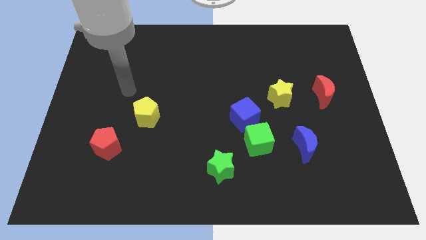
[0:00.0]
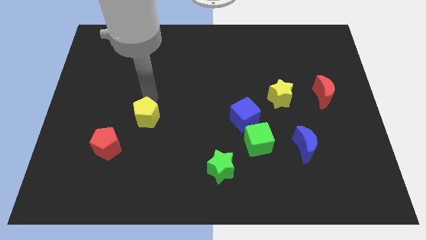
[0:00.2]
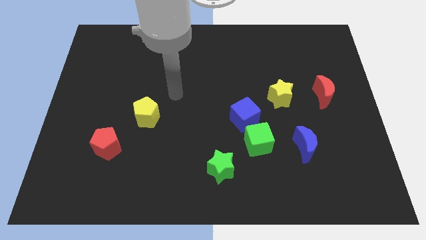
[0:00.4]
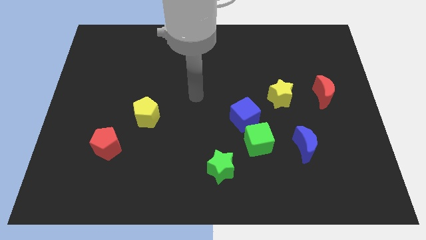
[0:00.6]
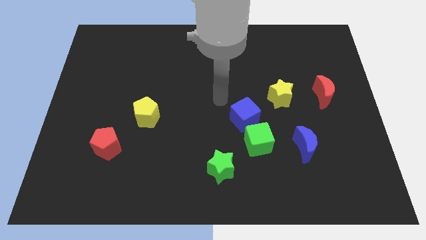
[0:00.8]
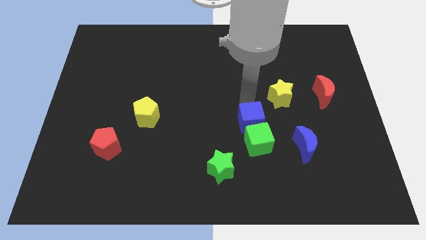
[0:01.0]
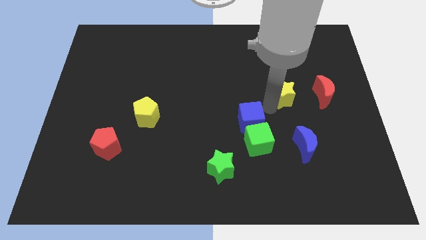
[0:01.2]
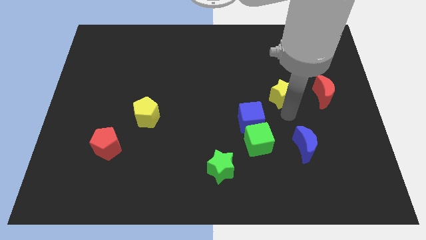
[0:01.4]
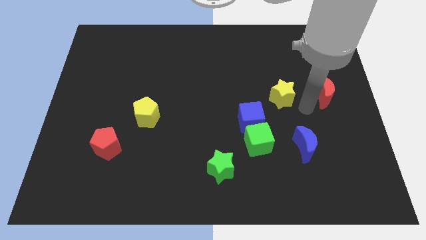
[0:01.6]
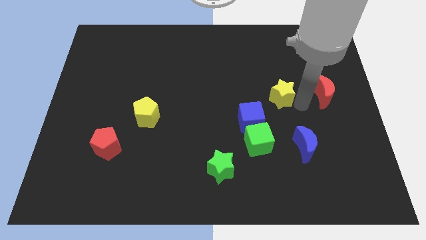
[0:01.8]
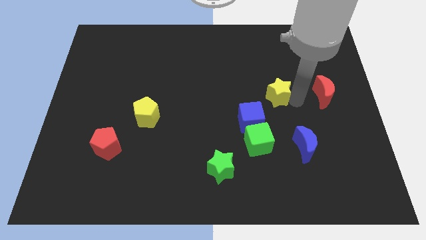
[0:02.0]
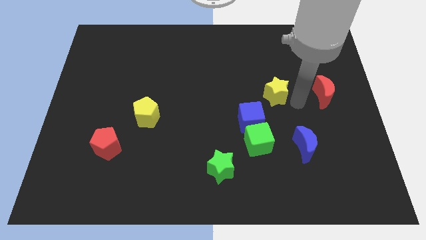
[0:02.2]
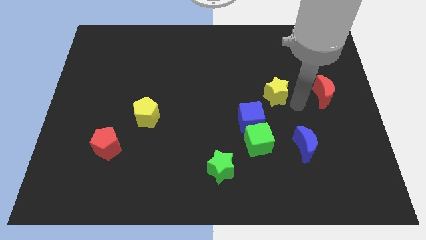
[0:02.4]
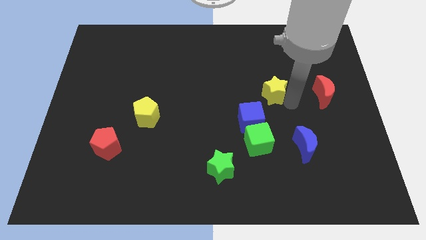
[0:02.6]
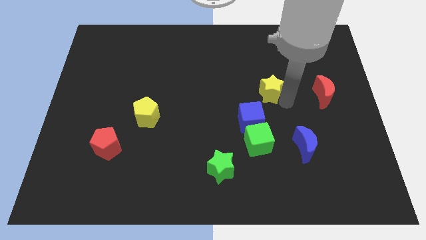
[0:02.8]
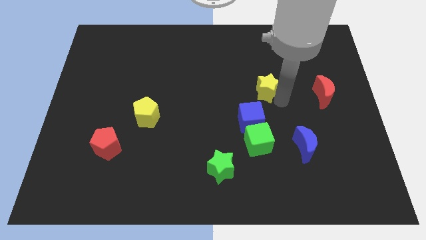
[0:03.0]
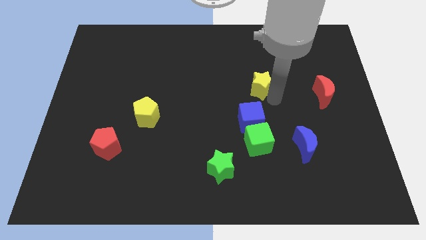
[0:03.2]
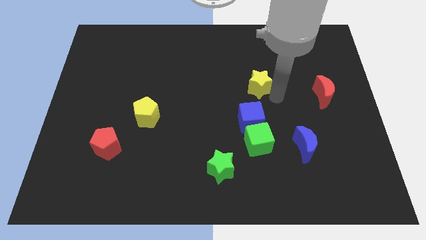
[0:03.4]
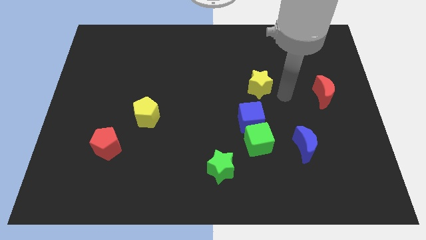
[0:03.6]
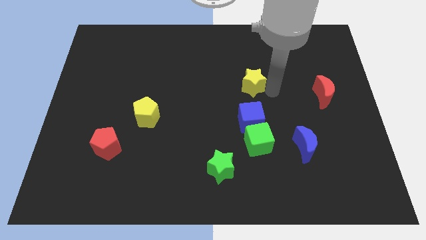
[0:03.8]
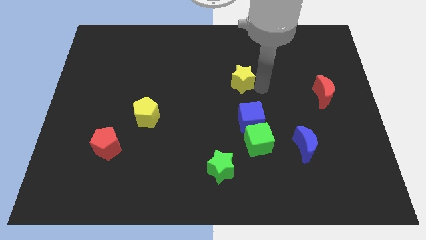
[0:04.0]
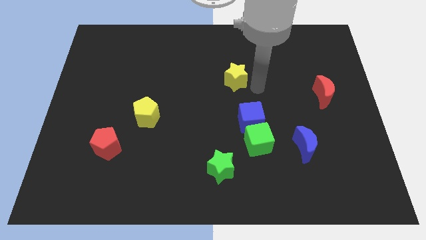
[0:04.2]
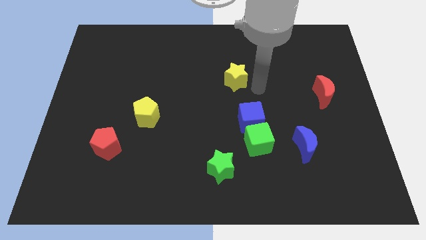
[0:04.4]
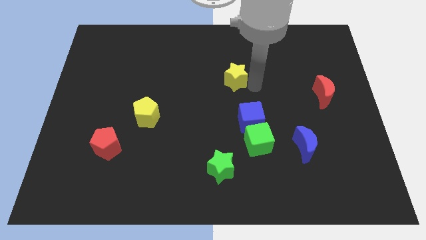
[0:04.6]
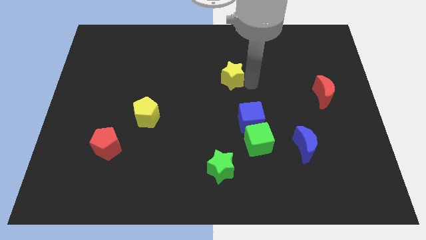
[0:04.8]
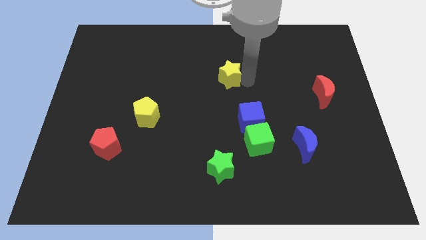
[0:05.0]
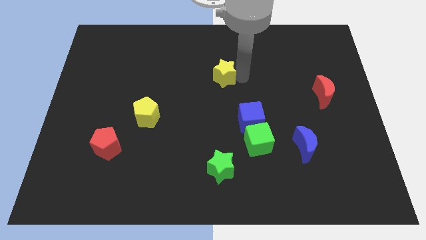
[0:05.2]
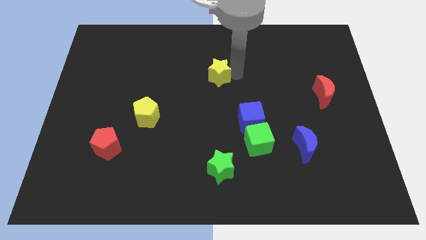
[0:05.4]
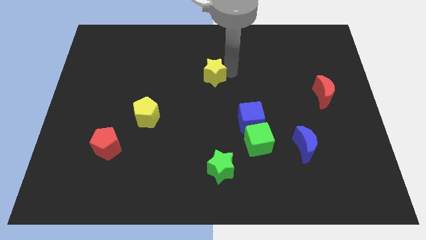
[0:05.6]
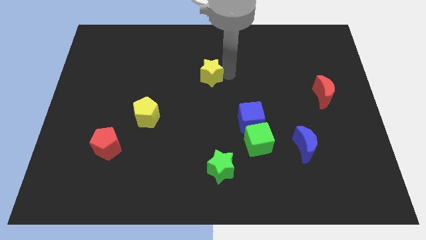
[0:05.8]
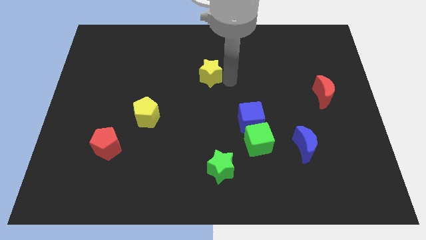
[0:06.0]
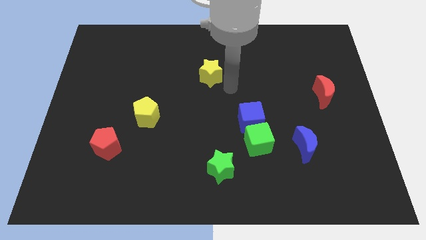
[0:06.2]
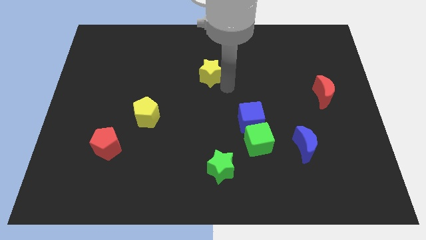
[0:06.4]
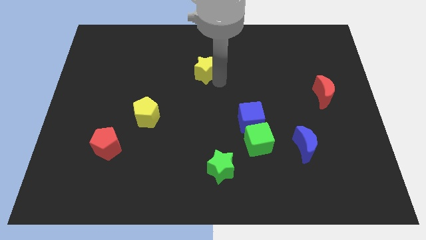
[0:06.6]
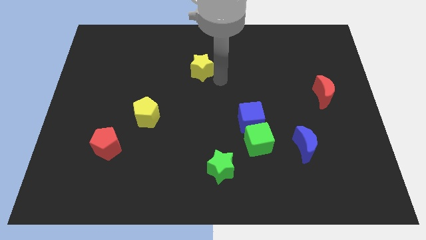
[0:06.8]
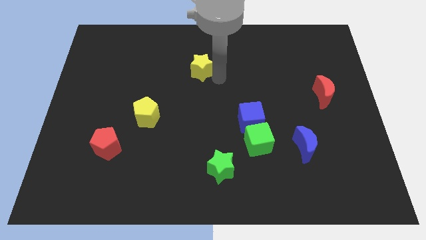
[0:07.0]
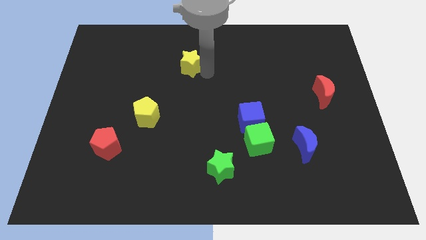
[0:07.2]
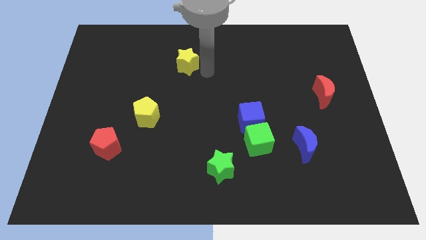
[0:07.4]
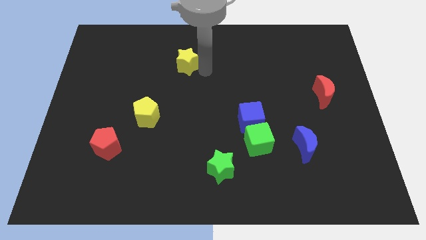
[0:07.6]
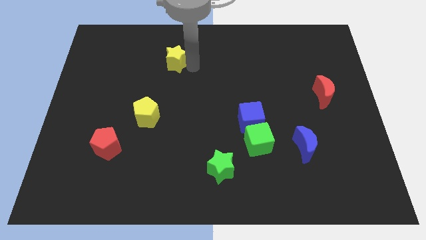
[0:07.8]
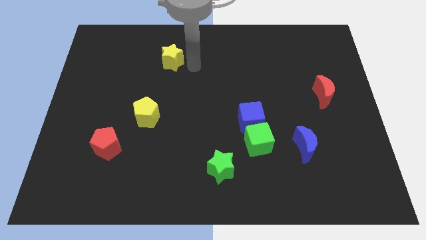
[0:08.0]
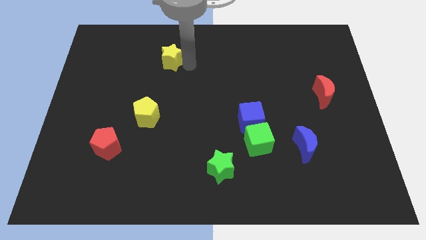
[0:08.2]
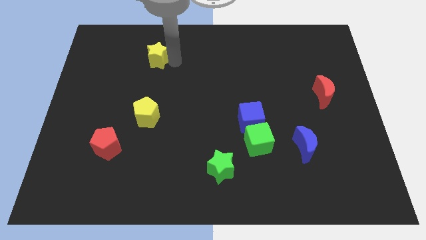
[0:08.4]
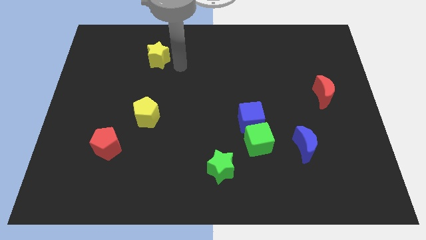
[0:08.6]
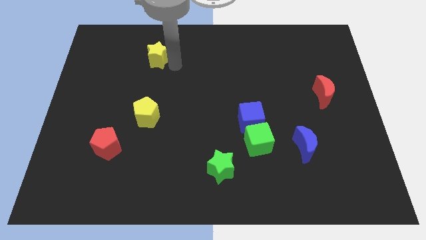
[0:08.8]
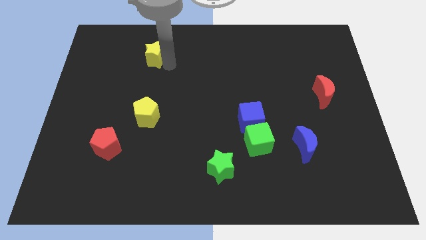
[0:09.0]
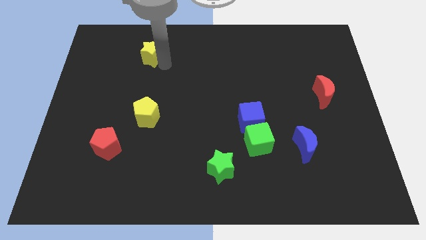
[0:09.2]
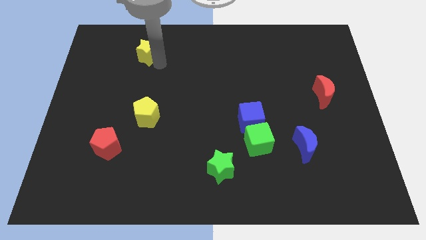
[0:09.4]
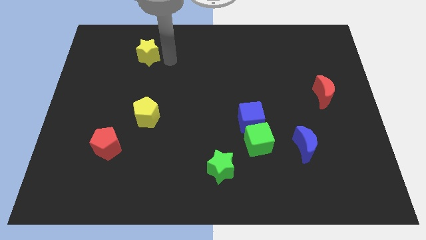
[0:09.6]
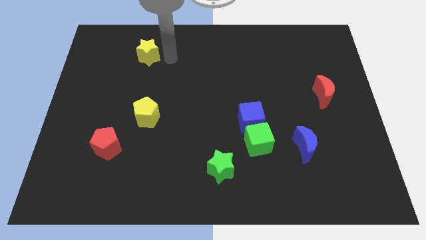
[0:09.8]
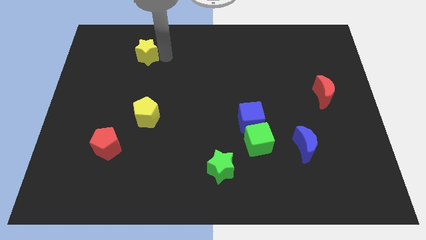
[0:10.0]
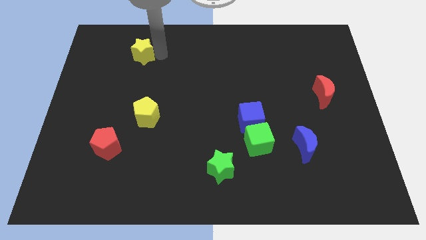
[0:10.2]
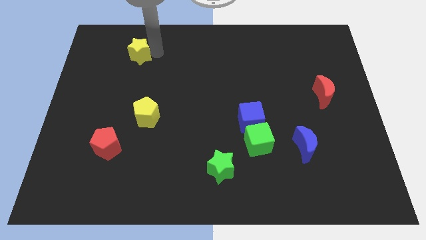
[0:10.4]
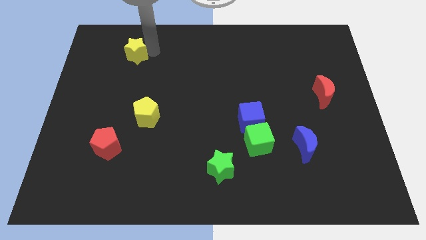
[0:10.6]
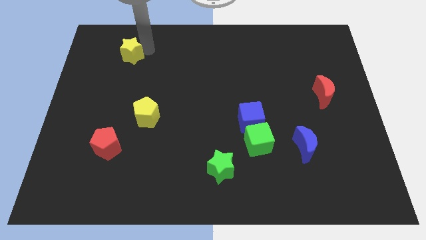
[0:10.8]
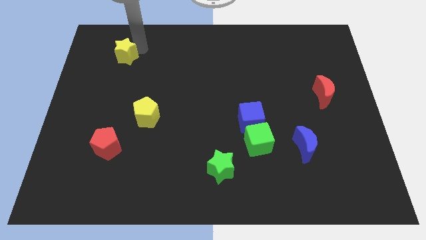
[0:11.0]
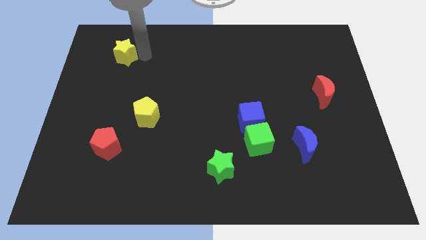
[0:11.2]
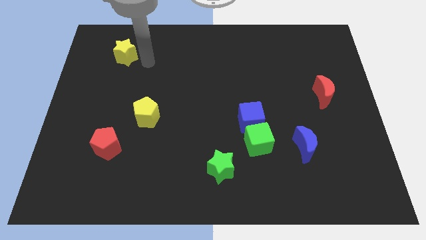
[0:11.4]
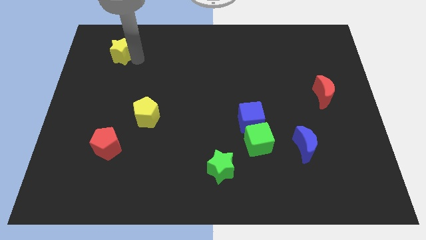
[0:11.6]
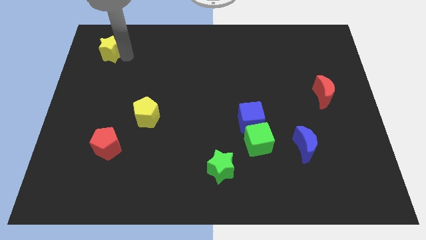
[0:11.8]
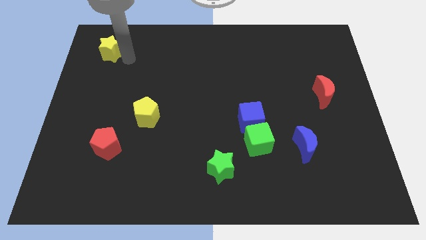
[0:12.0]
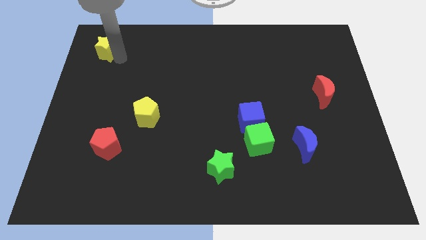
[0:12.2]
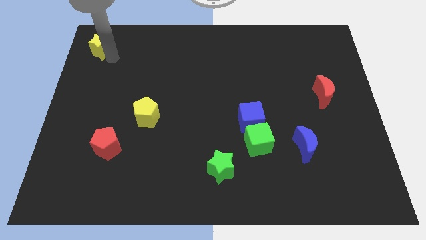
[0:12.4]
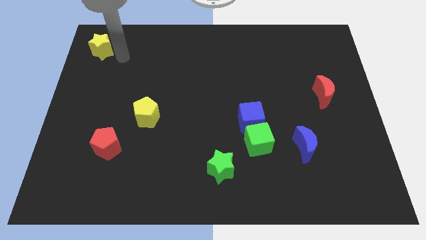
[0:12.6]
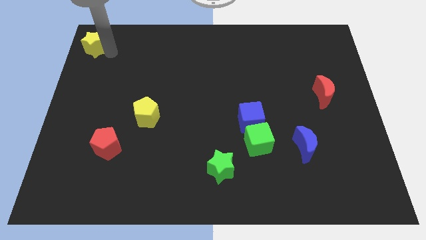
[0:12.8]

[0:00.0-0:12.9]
put the yellow star to the top left corner
